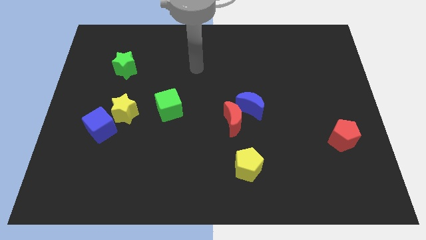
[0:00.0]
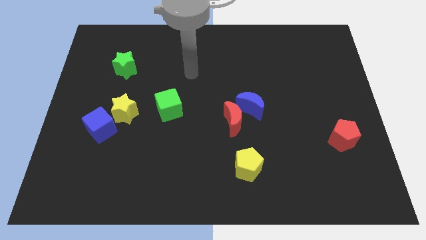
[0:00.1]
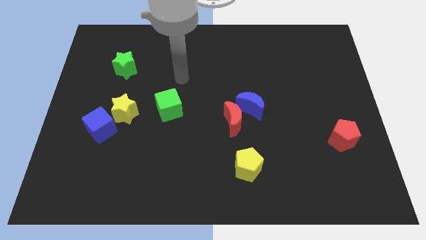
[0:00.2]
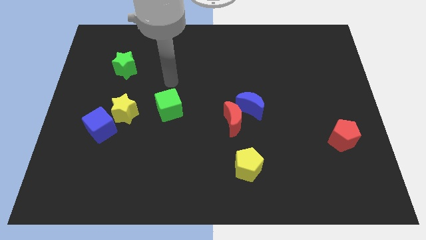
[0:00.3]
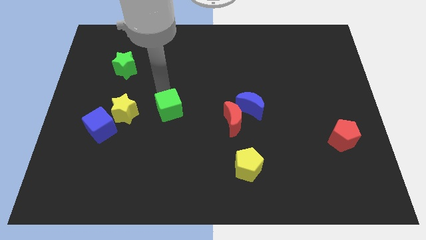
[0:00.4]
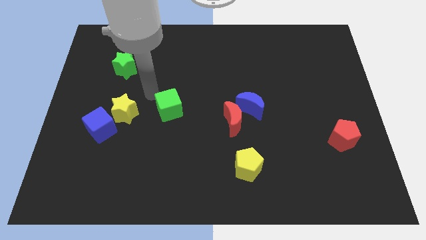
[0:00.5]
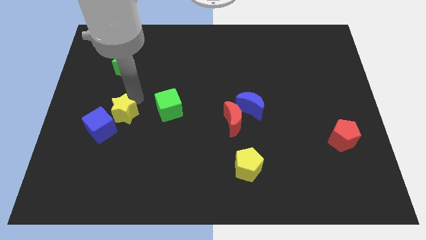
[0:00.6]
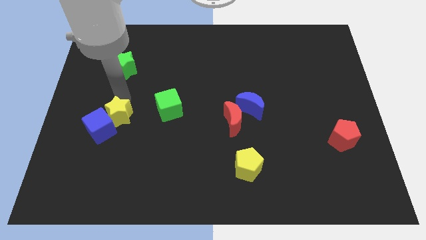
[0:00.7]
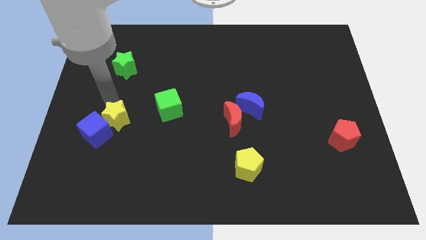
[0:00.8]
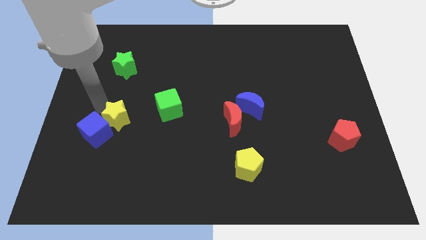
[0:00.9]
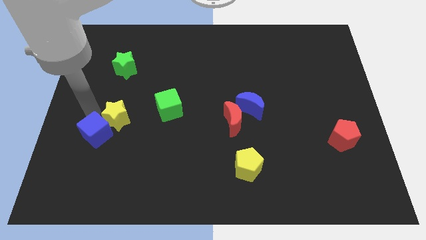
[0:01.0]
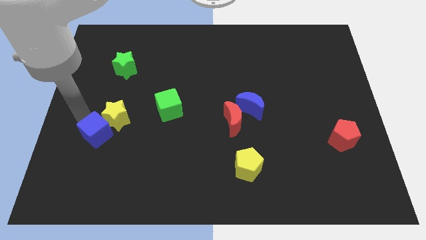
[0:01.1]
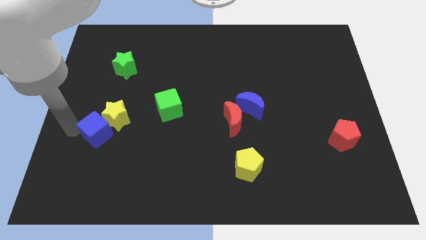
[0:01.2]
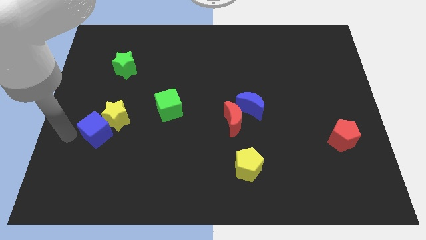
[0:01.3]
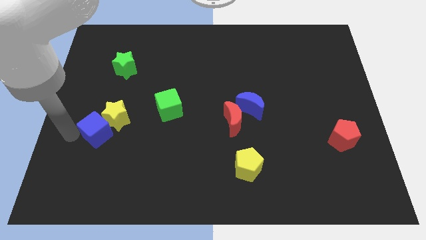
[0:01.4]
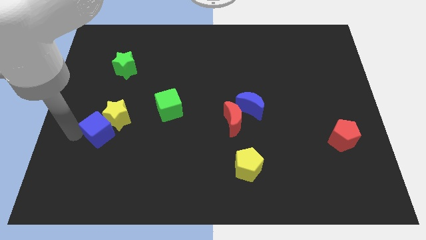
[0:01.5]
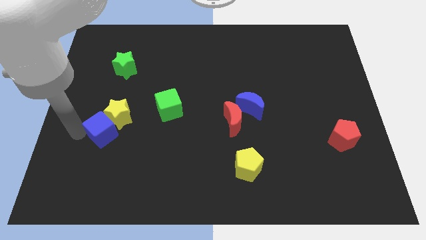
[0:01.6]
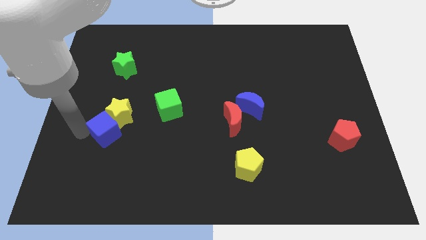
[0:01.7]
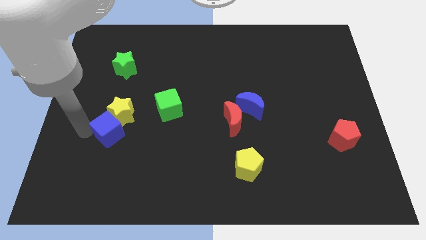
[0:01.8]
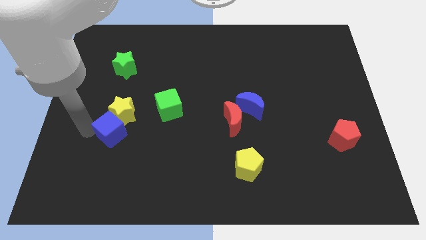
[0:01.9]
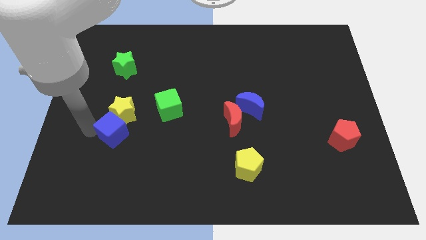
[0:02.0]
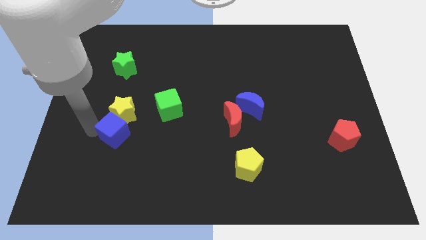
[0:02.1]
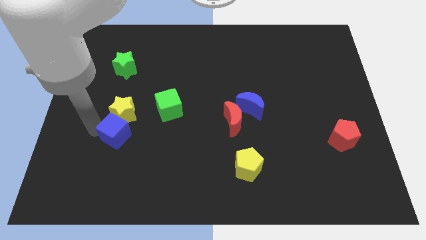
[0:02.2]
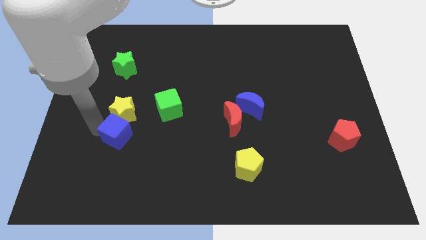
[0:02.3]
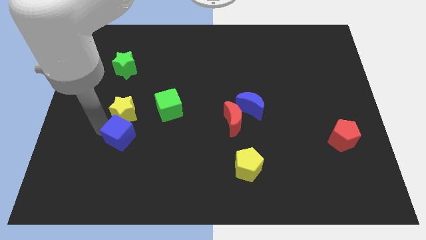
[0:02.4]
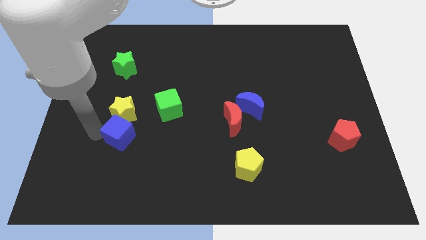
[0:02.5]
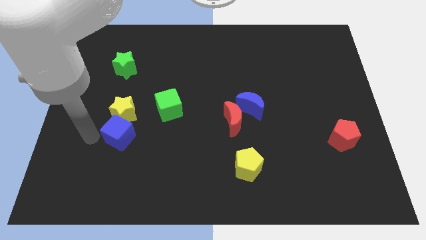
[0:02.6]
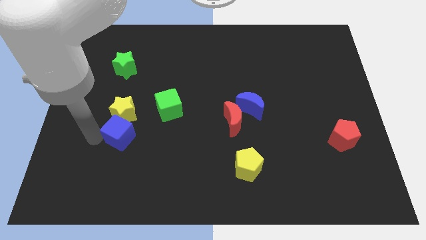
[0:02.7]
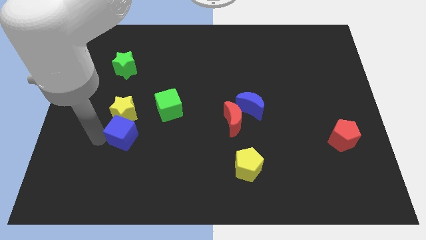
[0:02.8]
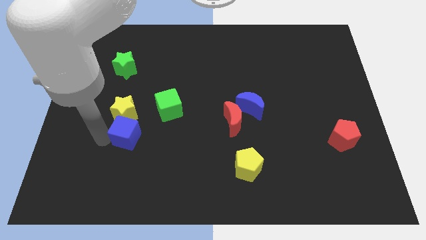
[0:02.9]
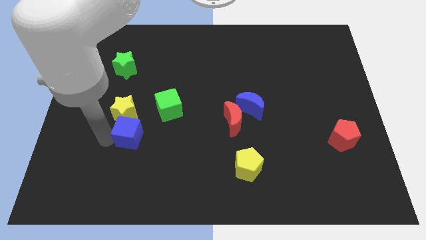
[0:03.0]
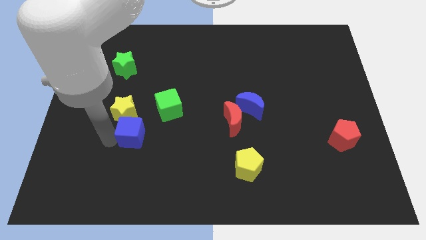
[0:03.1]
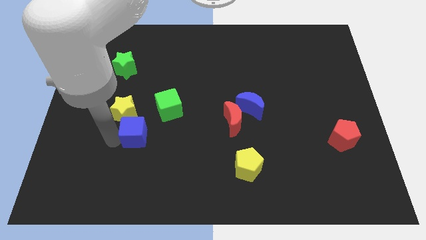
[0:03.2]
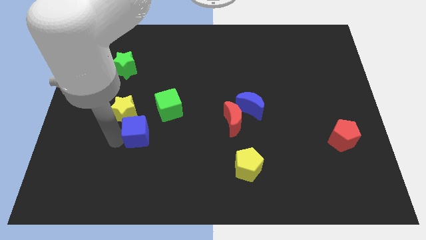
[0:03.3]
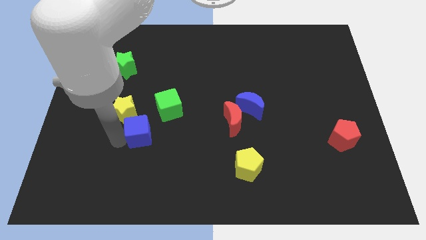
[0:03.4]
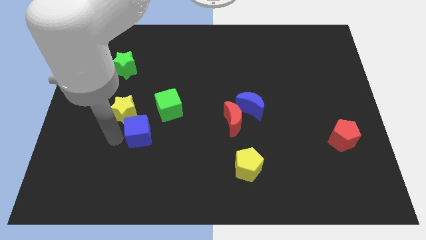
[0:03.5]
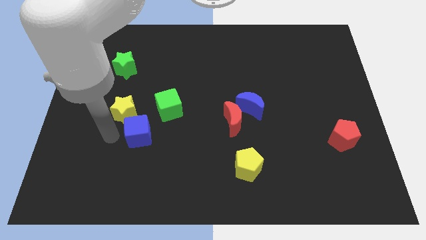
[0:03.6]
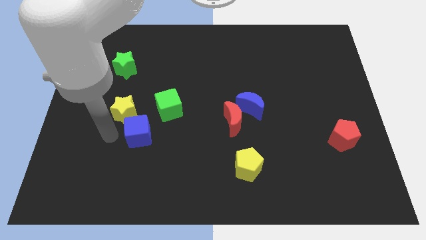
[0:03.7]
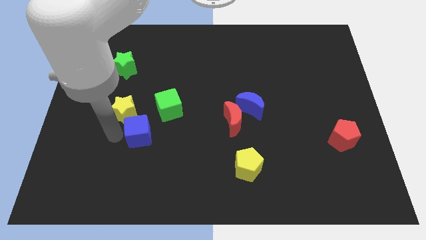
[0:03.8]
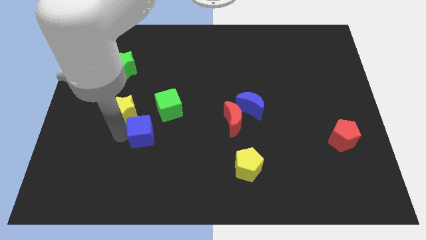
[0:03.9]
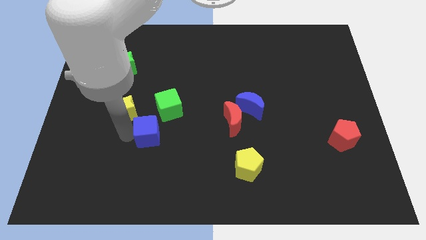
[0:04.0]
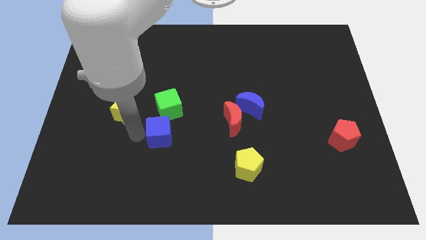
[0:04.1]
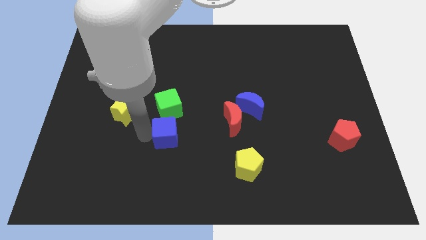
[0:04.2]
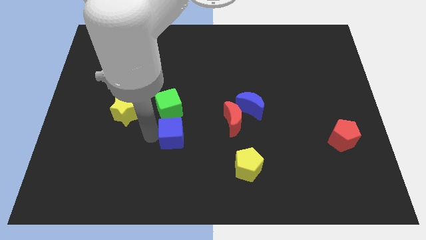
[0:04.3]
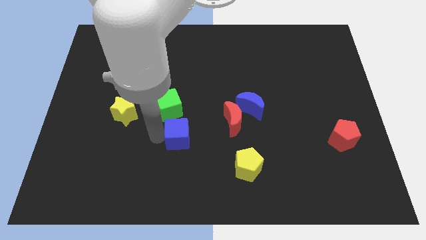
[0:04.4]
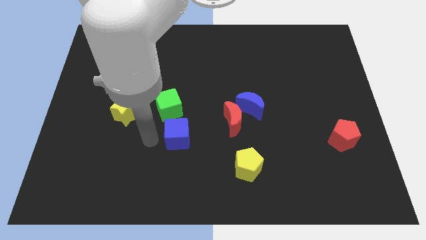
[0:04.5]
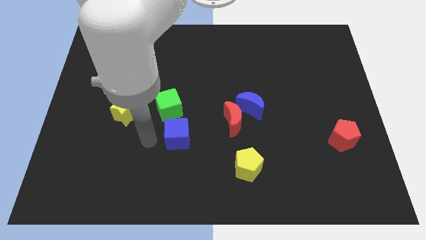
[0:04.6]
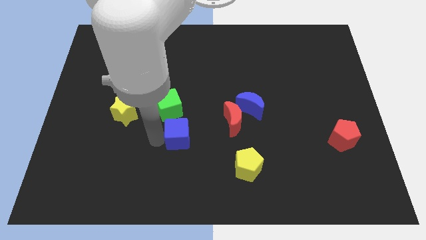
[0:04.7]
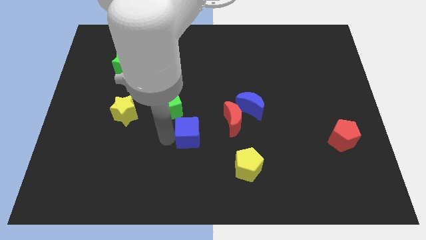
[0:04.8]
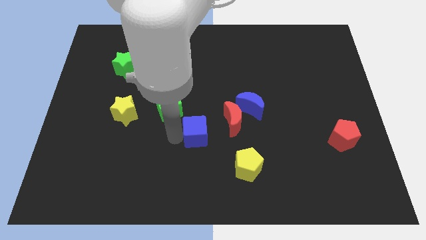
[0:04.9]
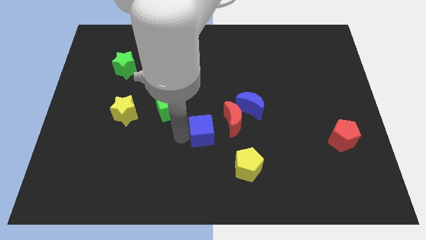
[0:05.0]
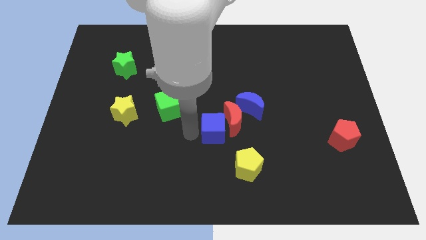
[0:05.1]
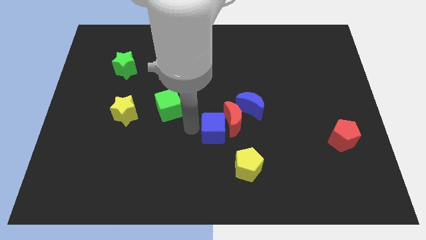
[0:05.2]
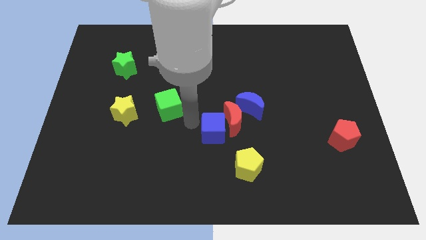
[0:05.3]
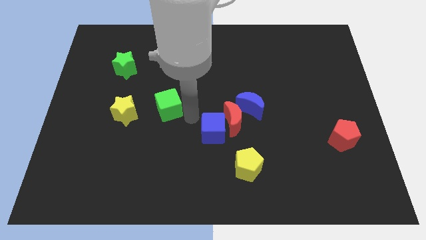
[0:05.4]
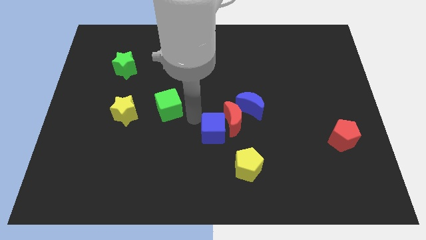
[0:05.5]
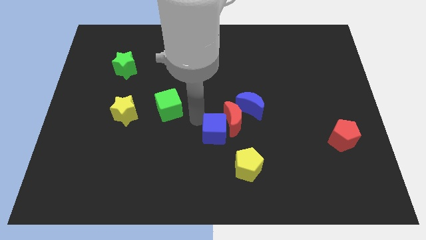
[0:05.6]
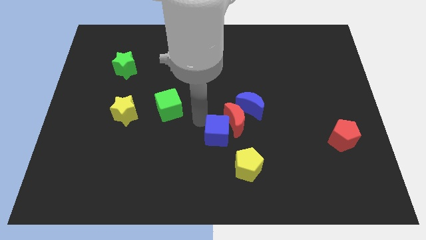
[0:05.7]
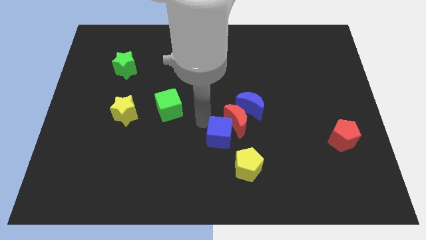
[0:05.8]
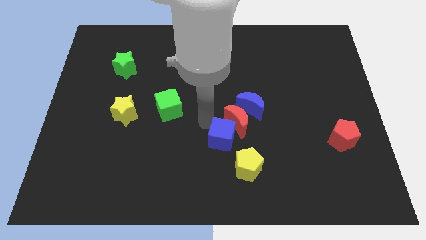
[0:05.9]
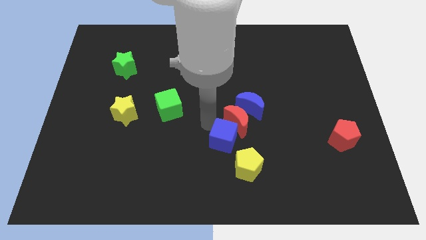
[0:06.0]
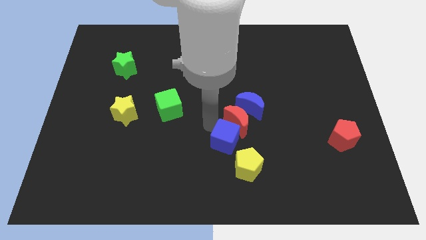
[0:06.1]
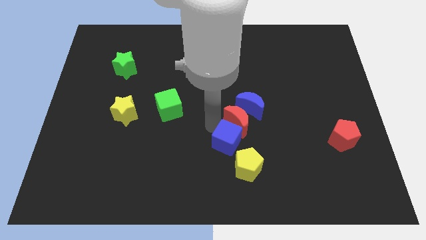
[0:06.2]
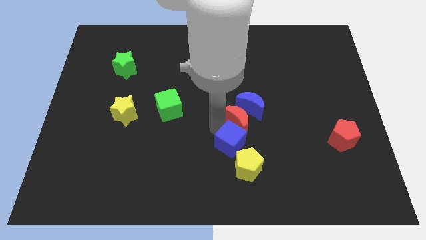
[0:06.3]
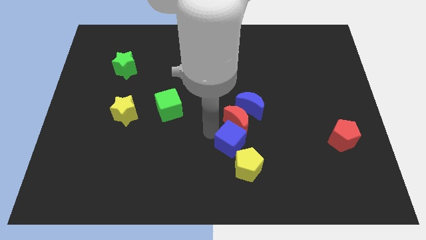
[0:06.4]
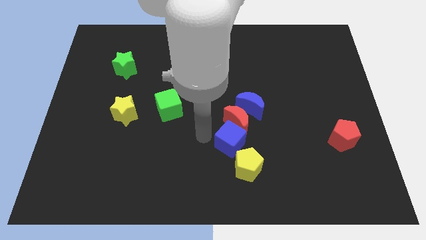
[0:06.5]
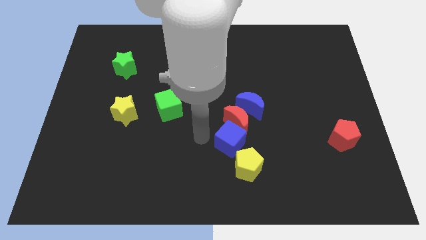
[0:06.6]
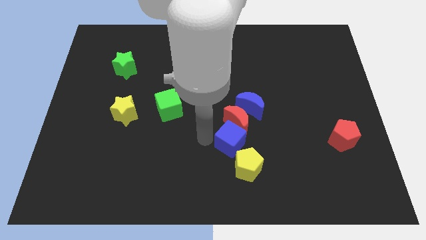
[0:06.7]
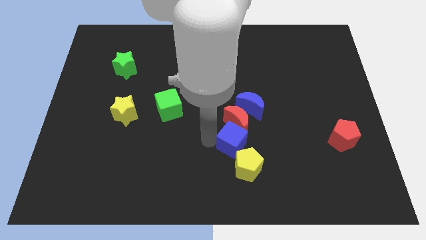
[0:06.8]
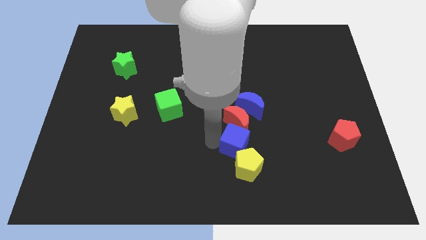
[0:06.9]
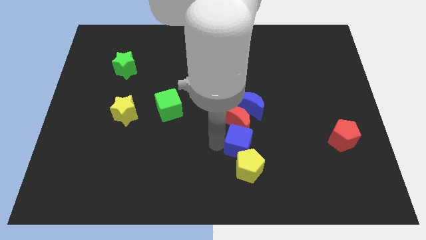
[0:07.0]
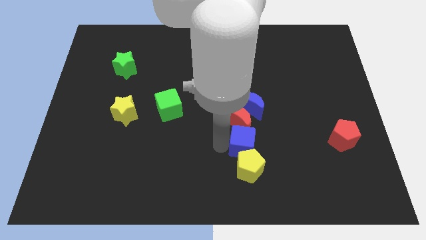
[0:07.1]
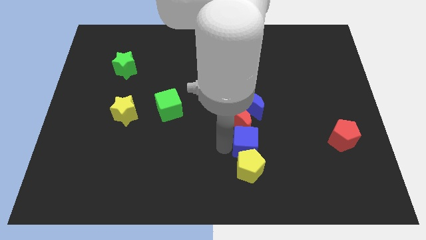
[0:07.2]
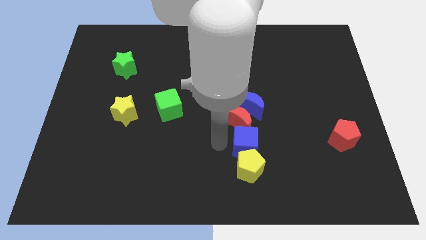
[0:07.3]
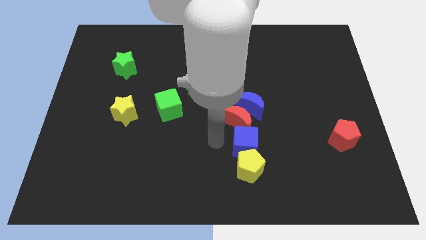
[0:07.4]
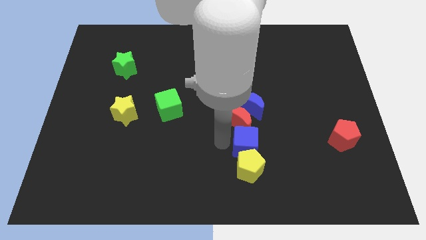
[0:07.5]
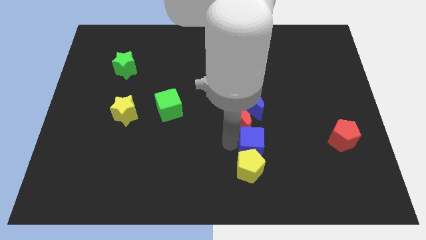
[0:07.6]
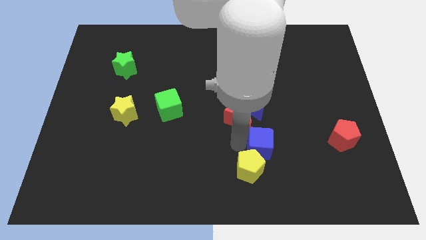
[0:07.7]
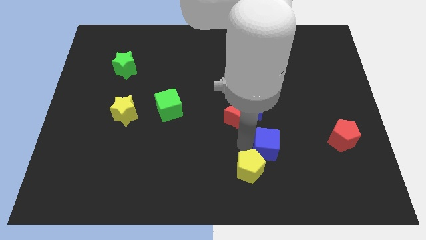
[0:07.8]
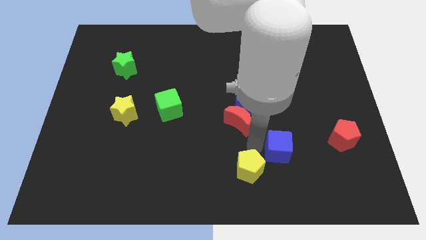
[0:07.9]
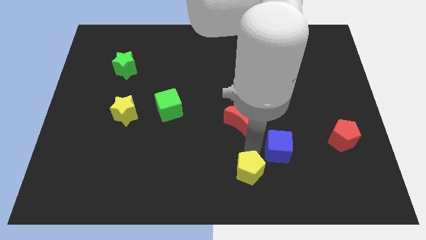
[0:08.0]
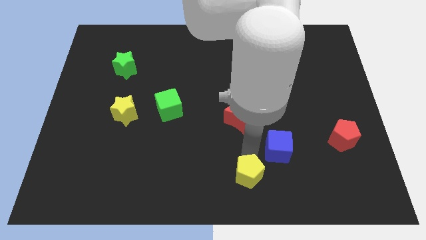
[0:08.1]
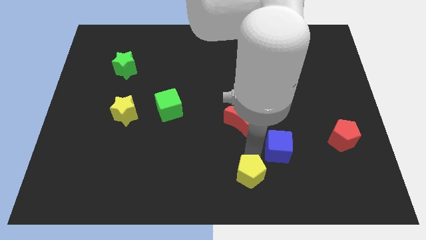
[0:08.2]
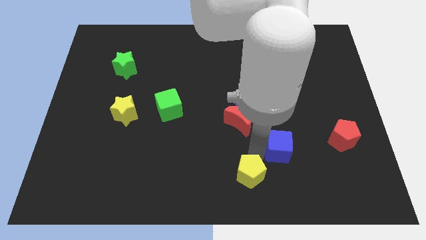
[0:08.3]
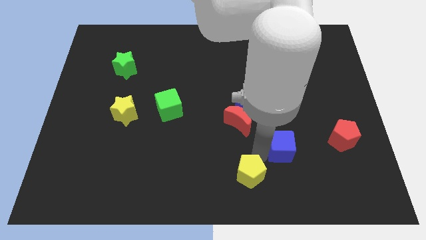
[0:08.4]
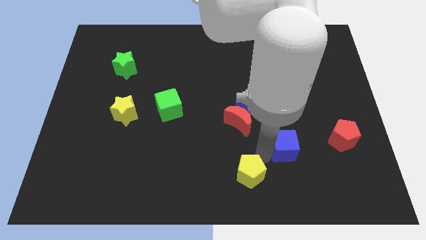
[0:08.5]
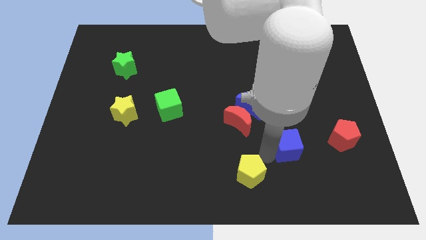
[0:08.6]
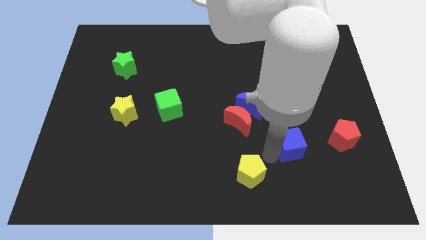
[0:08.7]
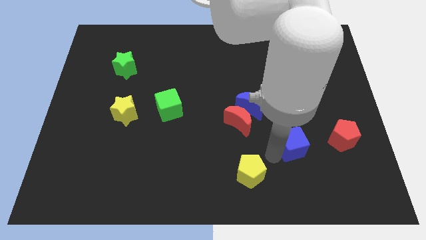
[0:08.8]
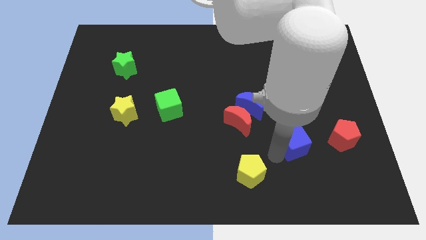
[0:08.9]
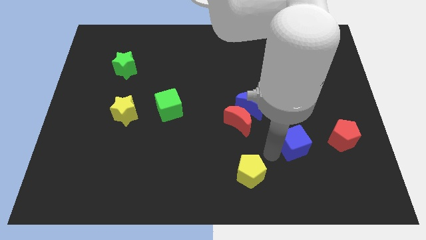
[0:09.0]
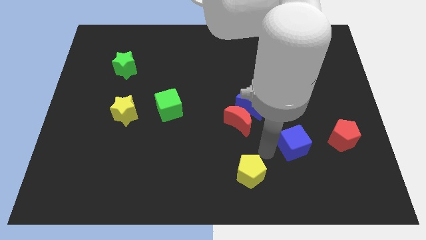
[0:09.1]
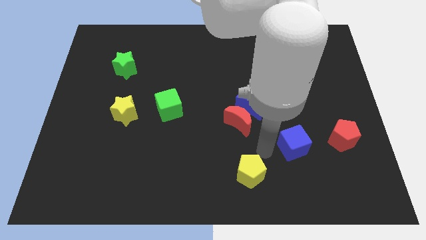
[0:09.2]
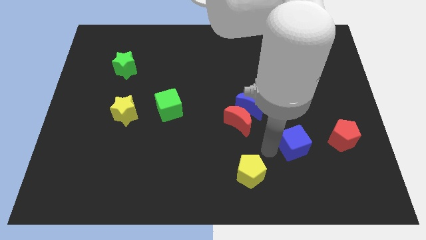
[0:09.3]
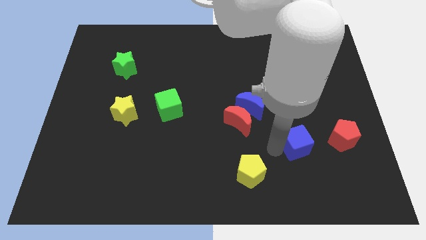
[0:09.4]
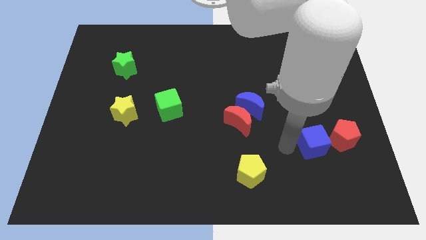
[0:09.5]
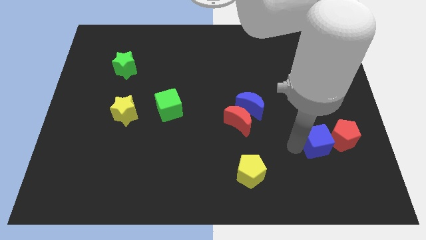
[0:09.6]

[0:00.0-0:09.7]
push the blue cube close to the red pentagon
